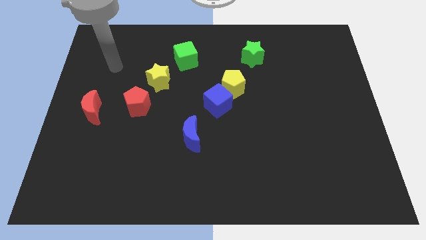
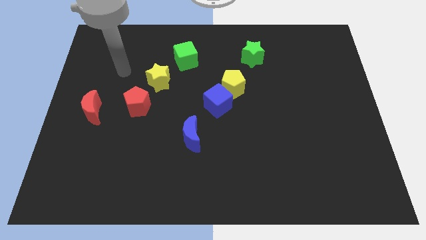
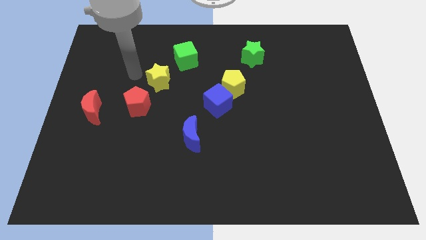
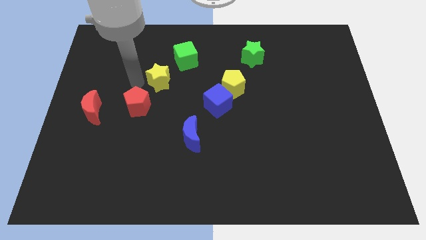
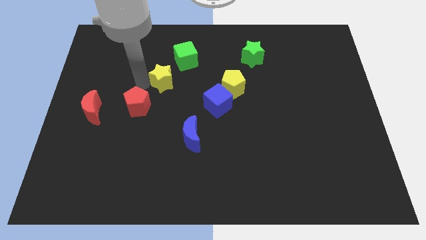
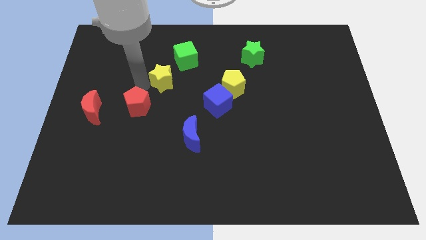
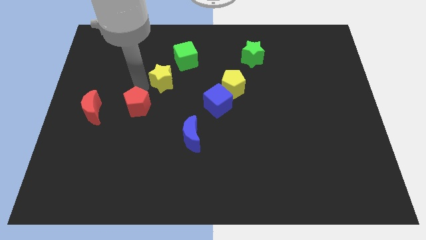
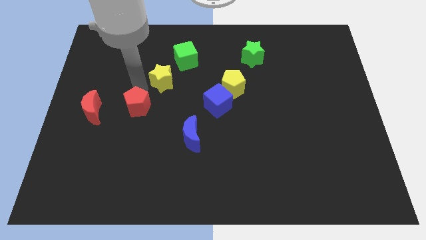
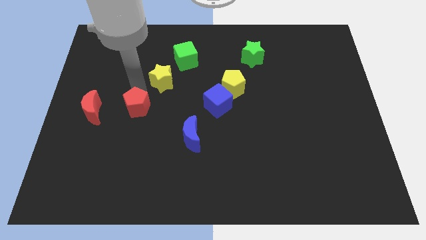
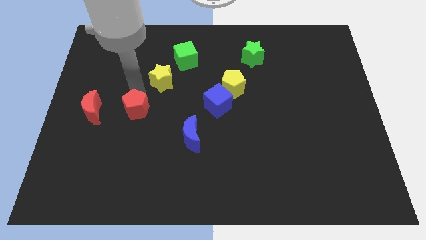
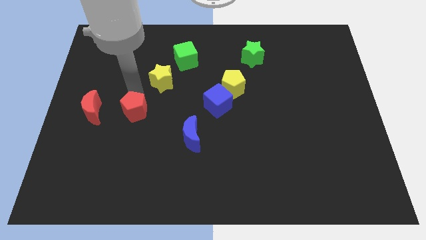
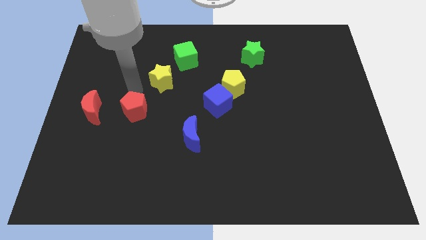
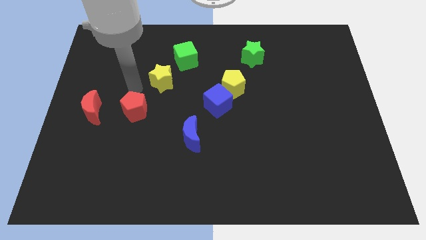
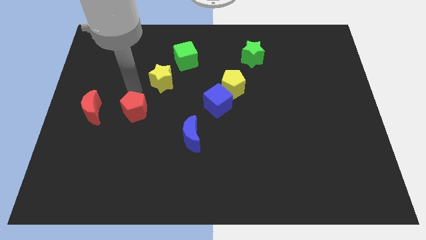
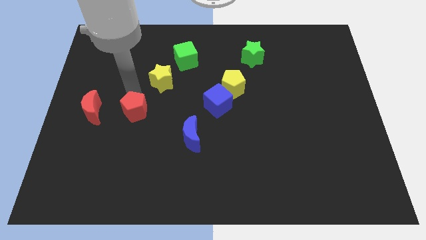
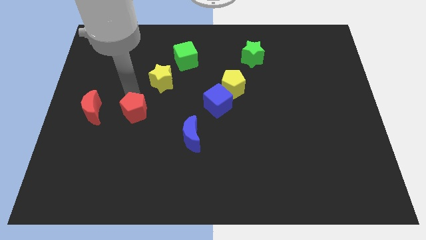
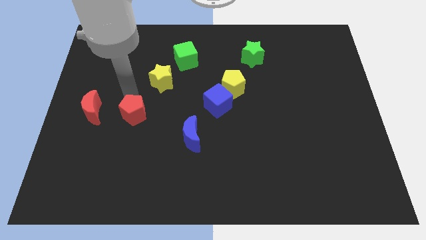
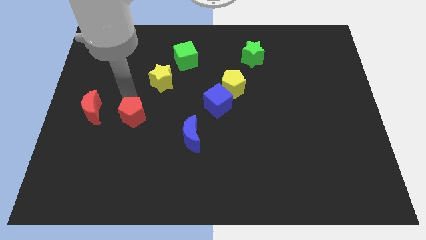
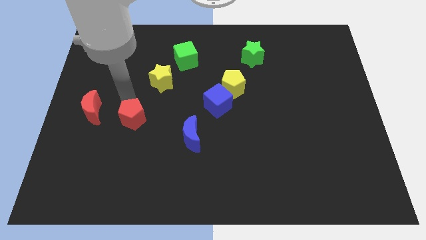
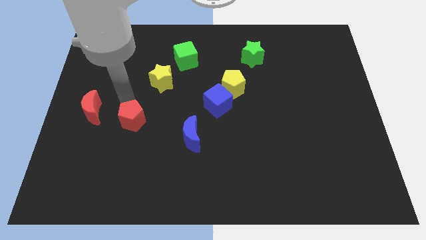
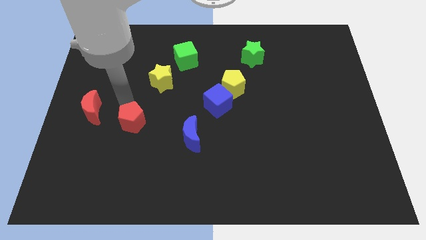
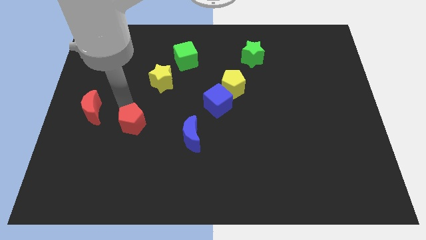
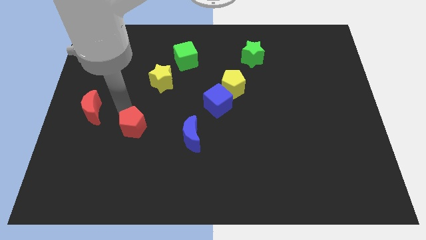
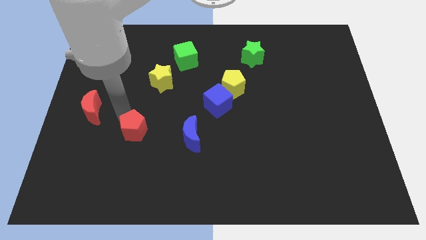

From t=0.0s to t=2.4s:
push the red pentagon a little downwards

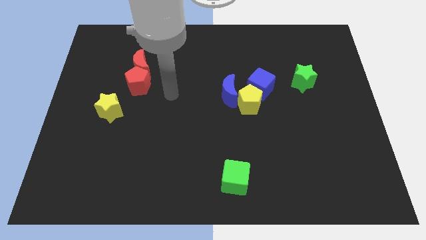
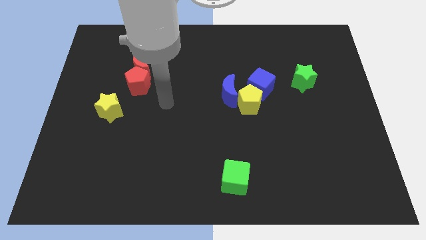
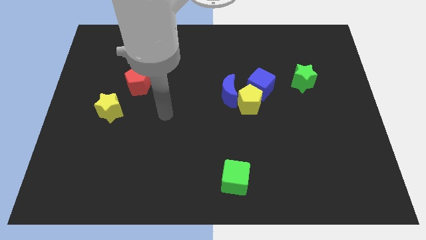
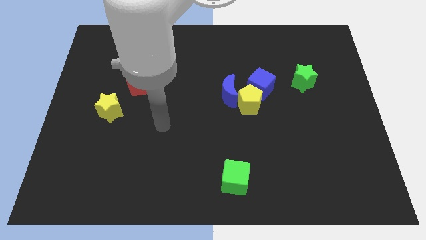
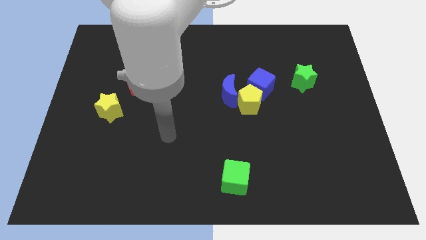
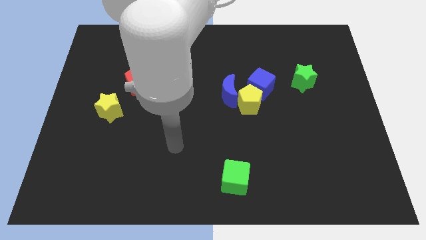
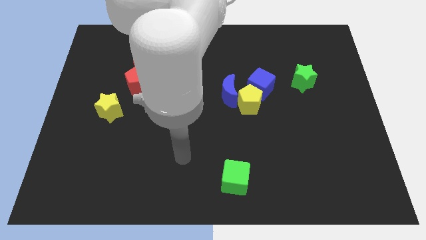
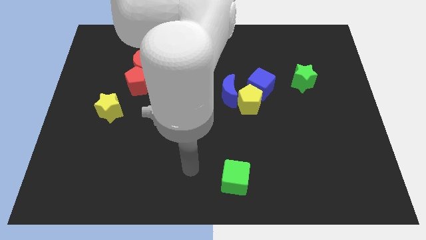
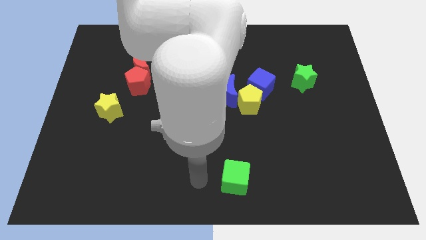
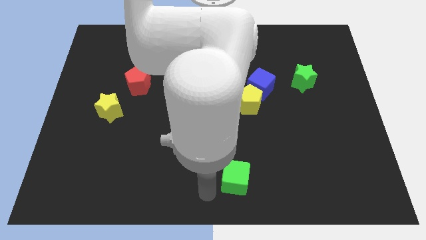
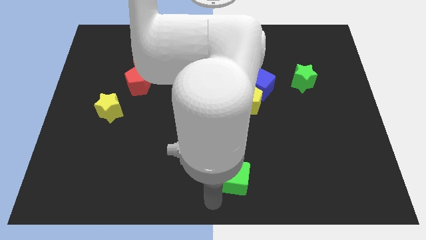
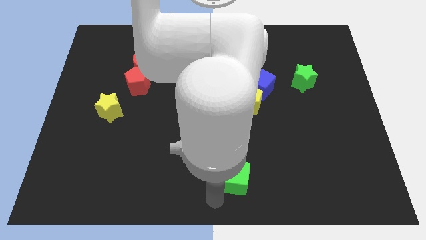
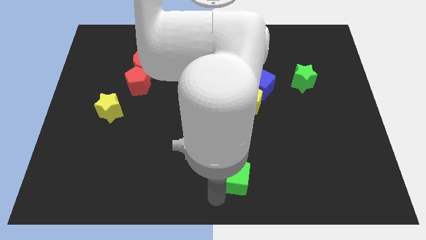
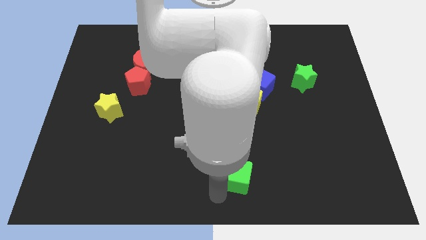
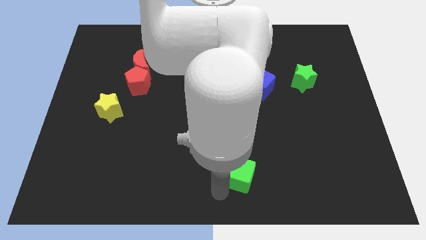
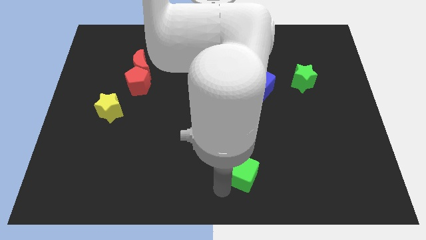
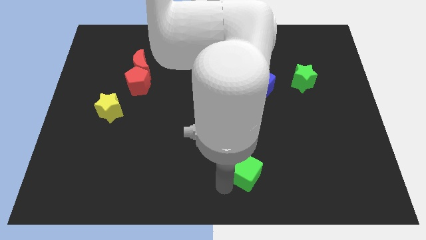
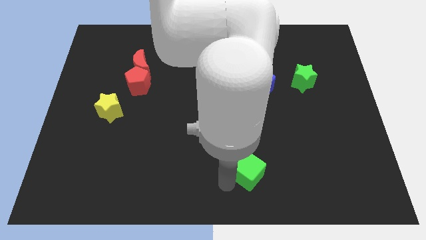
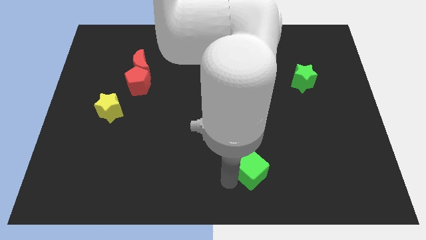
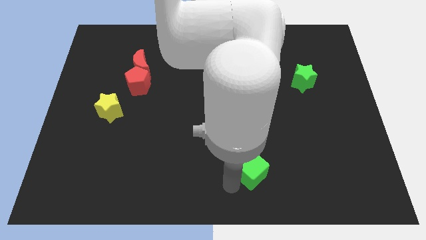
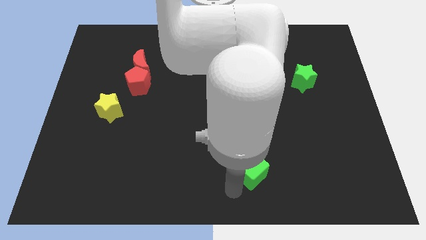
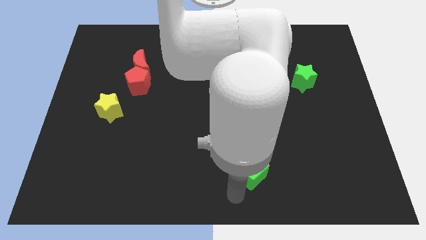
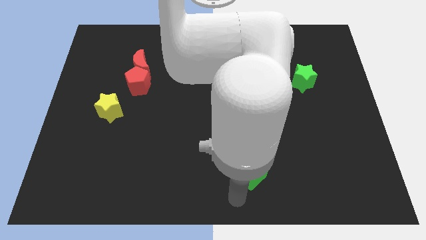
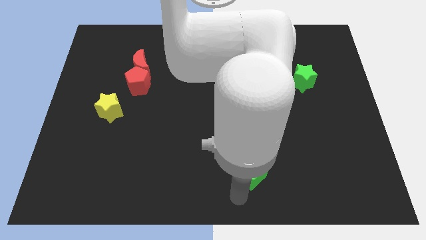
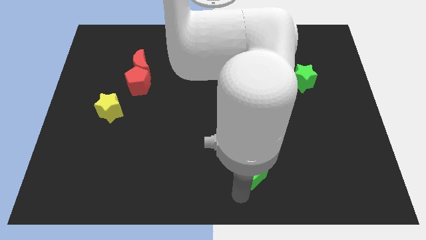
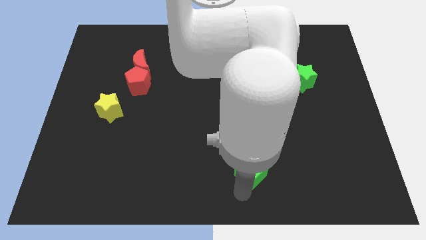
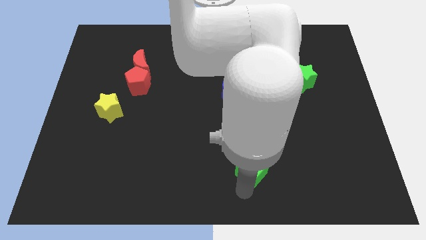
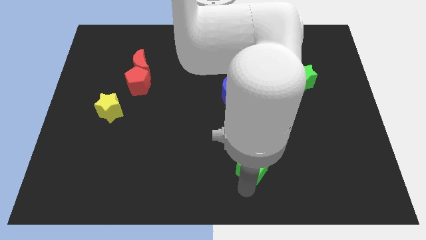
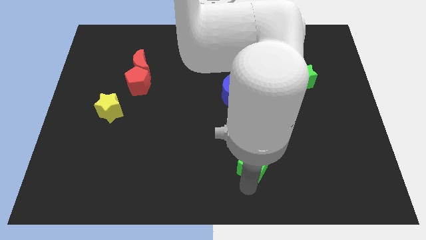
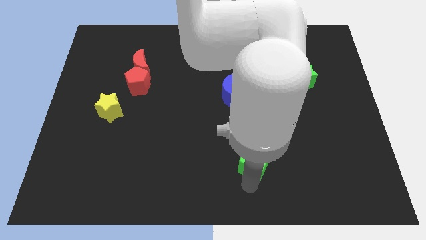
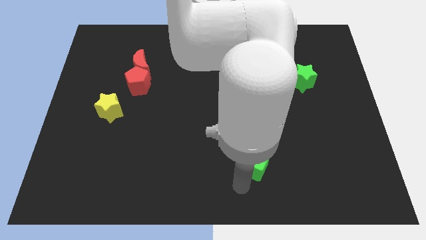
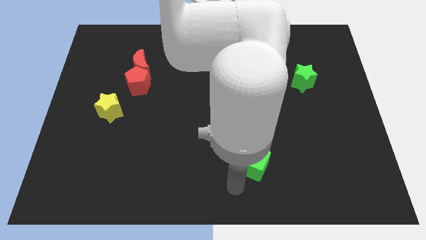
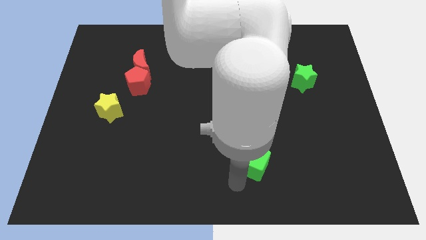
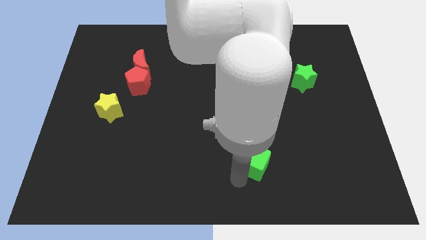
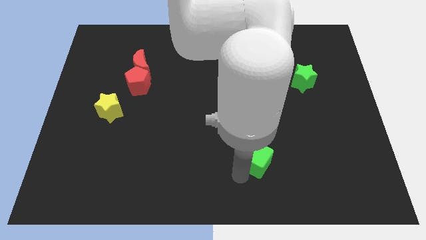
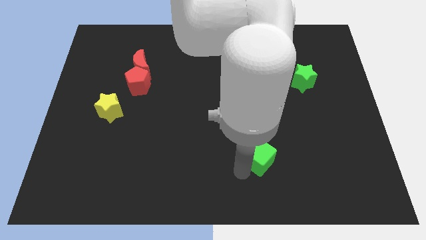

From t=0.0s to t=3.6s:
slightly slide the green cube diagonally upwards and right

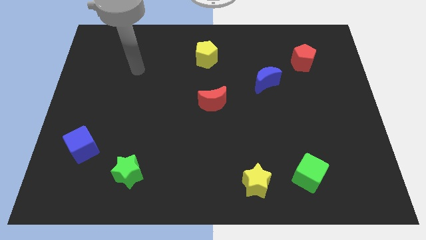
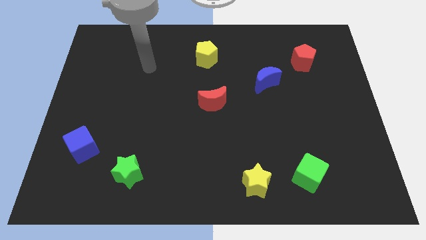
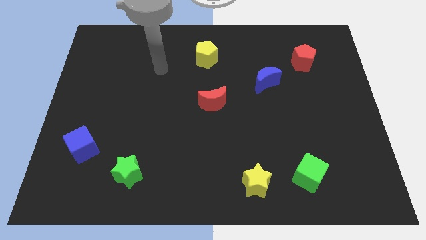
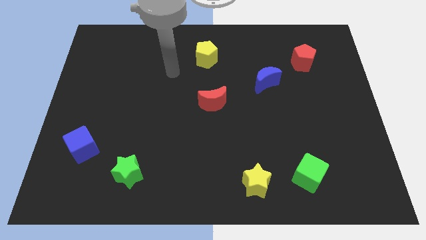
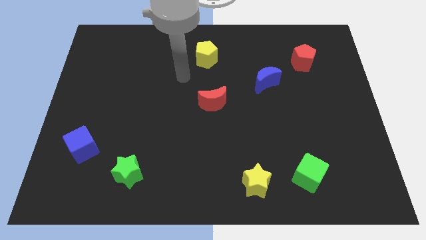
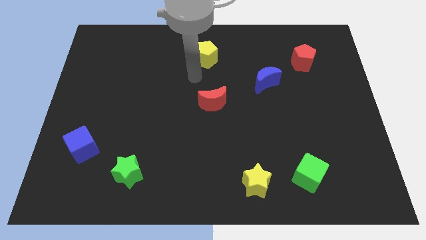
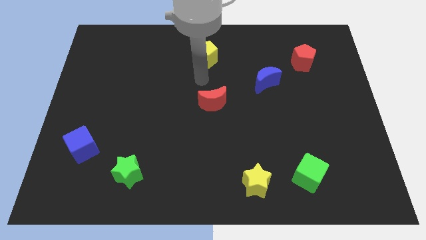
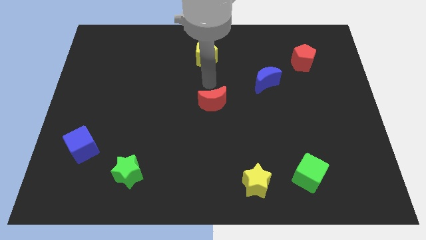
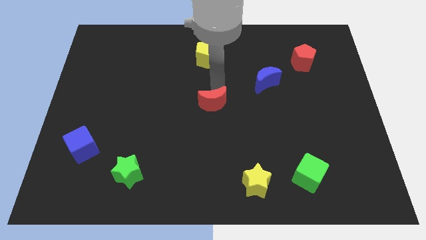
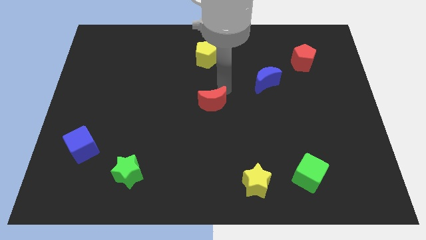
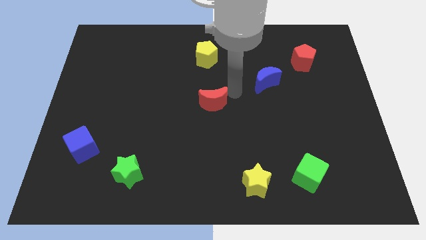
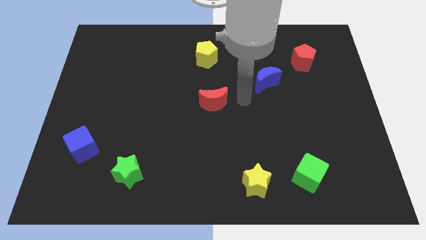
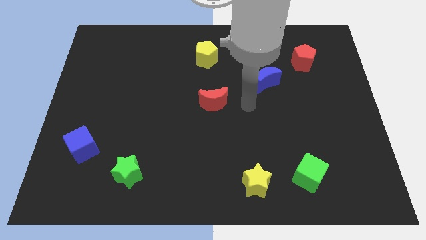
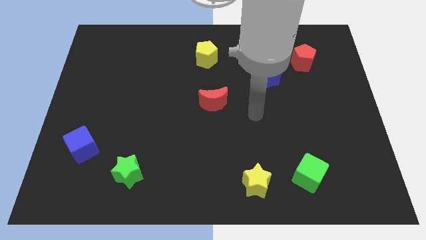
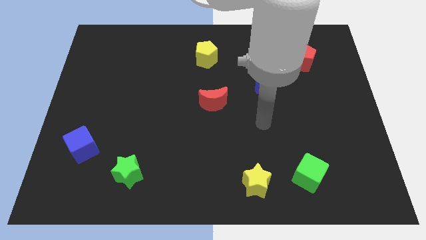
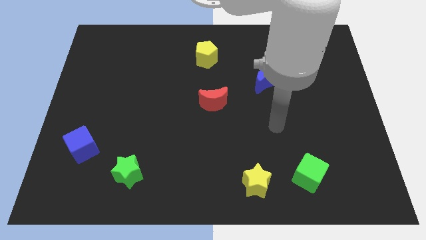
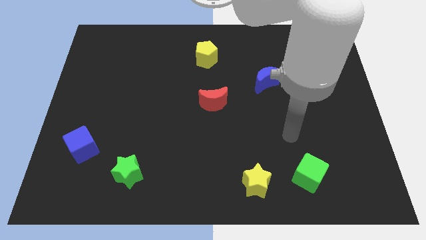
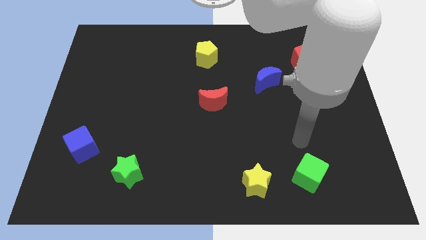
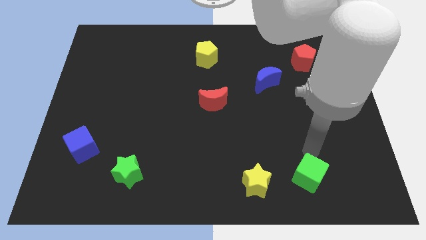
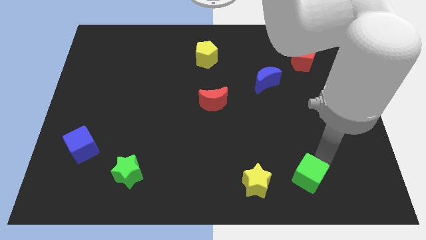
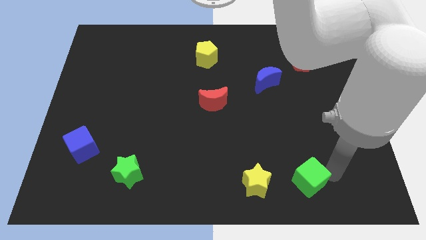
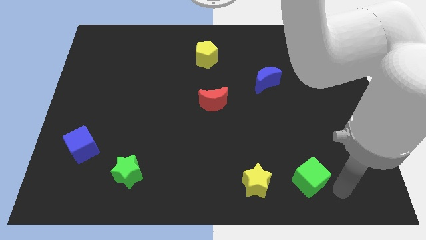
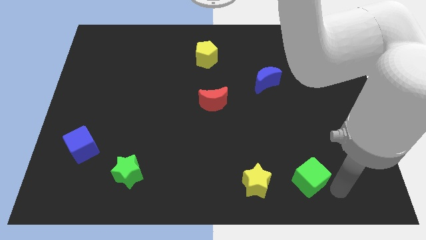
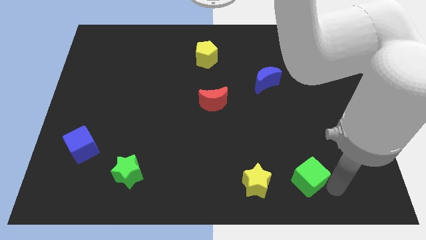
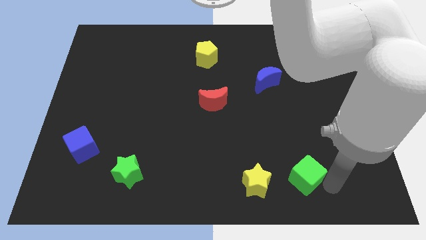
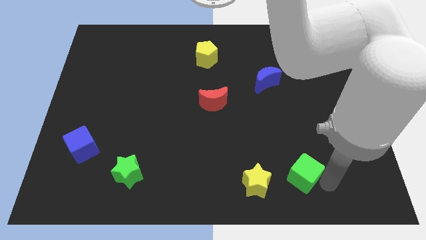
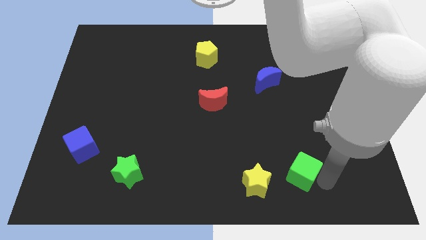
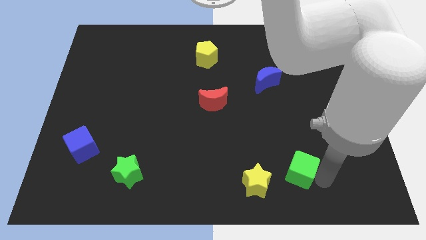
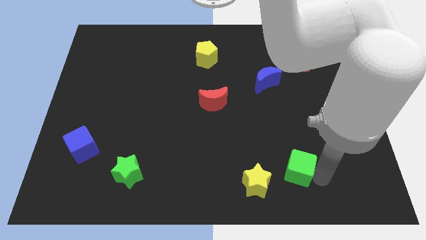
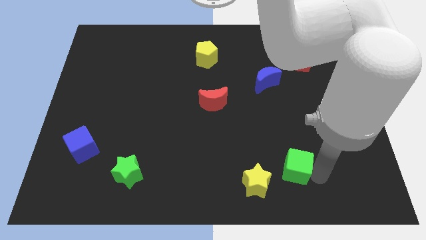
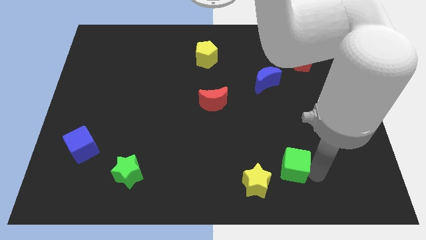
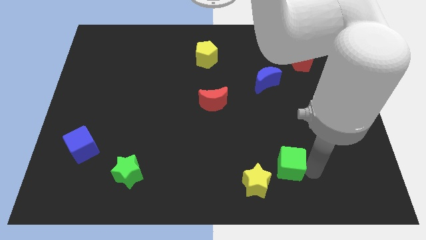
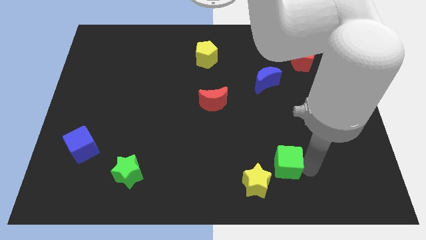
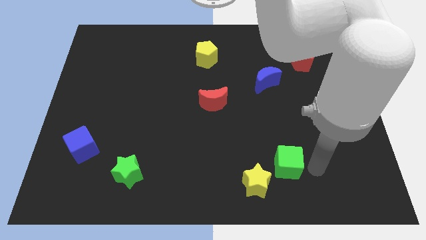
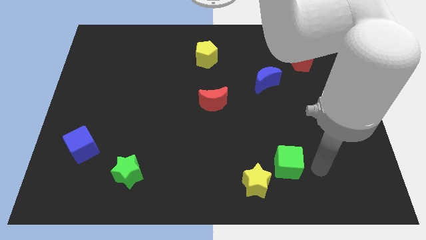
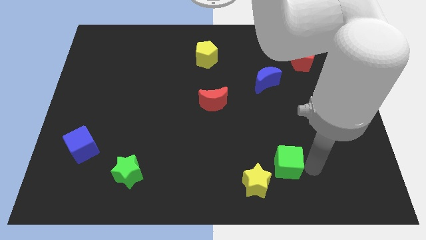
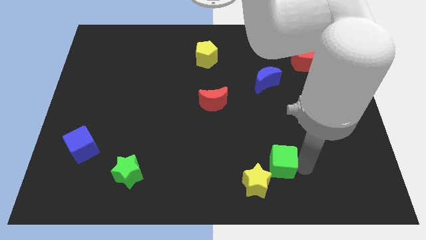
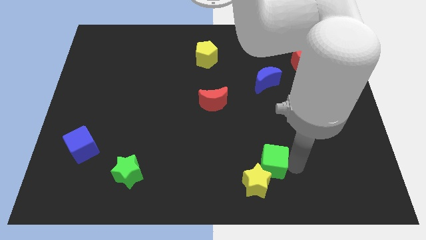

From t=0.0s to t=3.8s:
slide the green cube a little bit to the left
